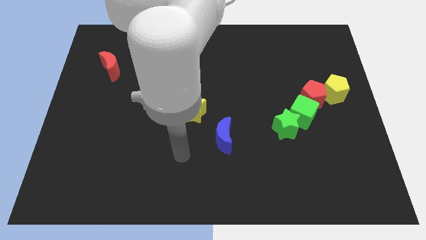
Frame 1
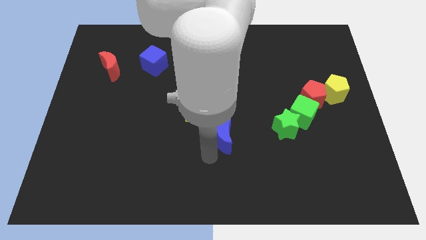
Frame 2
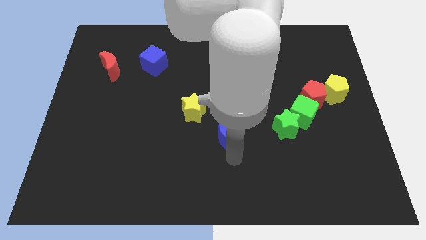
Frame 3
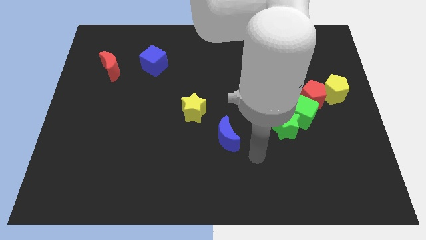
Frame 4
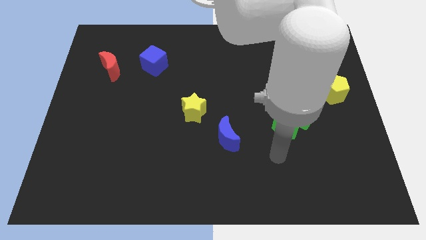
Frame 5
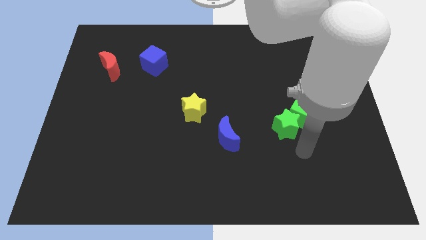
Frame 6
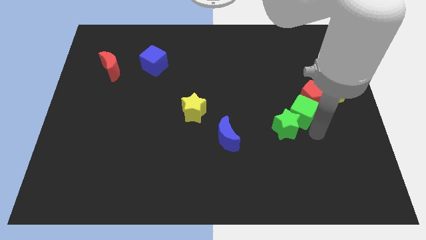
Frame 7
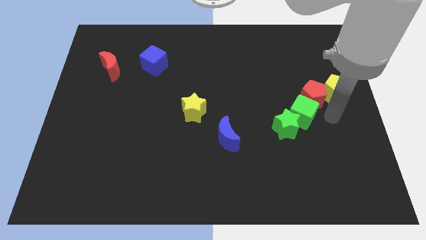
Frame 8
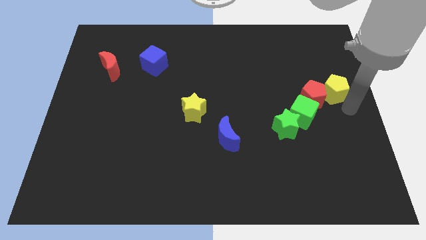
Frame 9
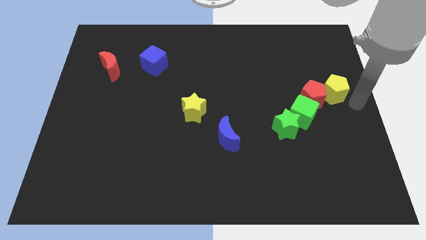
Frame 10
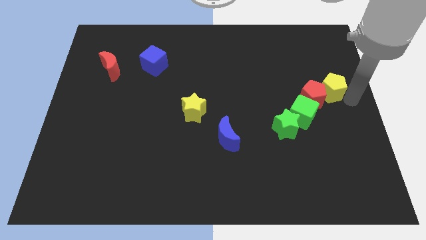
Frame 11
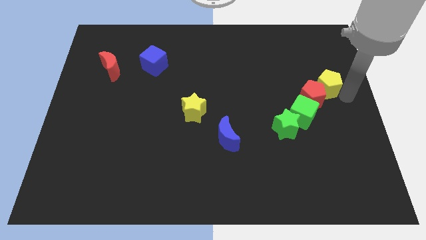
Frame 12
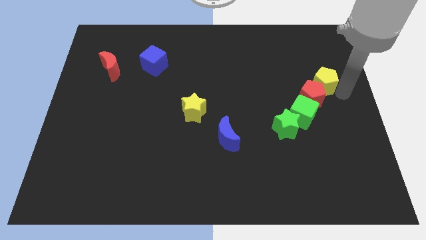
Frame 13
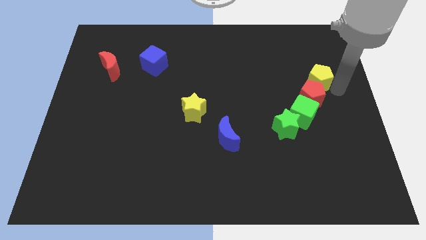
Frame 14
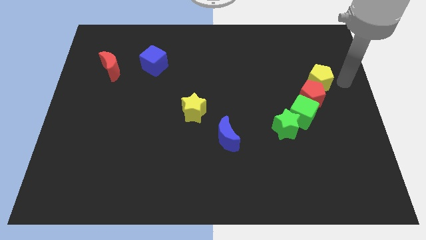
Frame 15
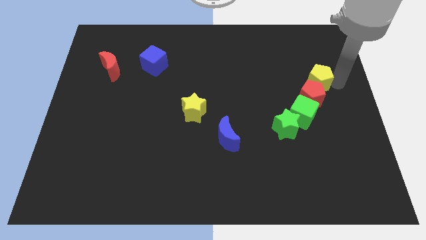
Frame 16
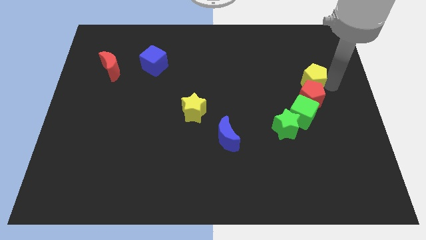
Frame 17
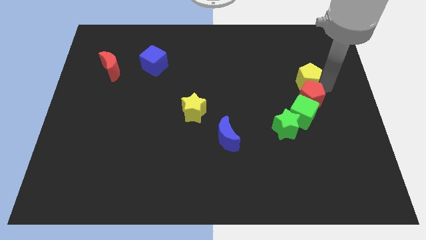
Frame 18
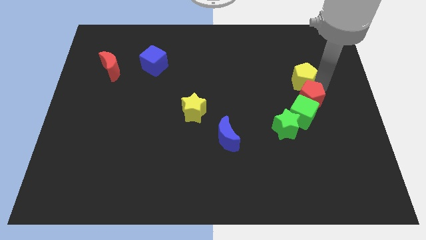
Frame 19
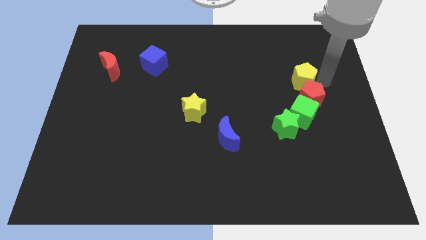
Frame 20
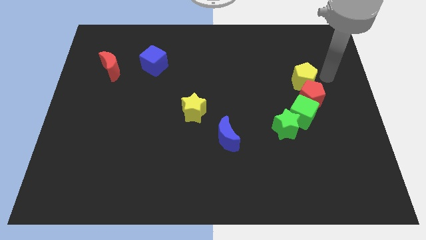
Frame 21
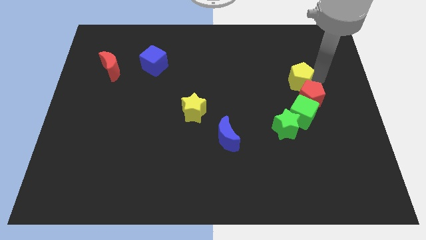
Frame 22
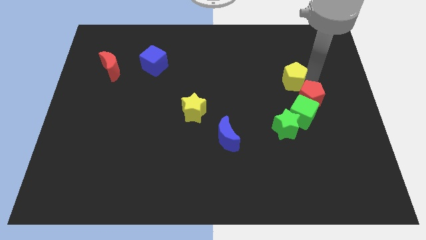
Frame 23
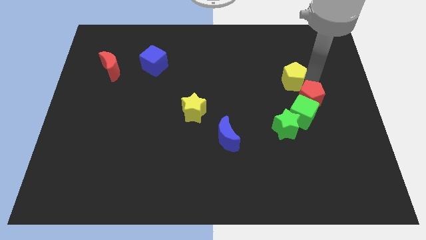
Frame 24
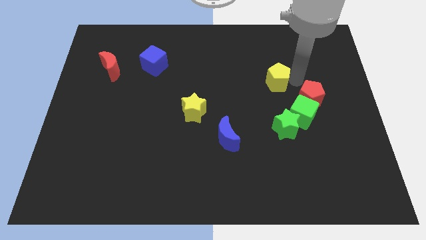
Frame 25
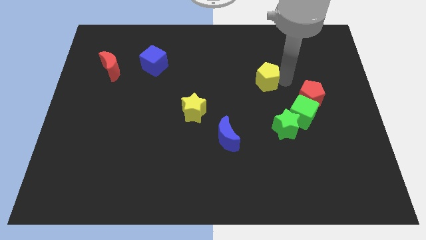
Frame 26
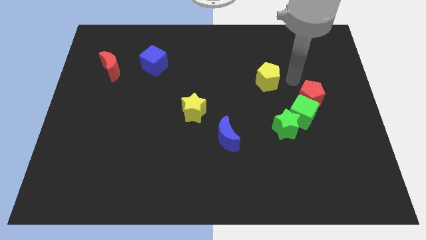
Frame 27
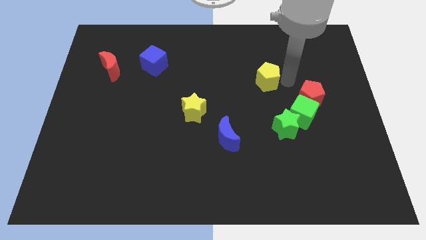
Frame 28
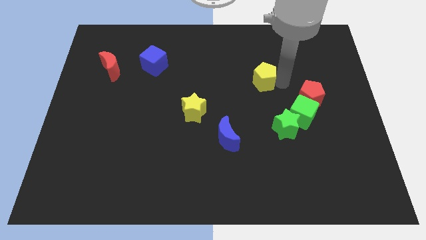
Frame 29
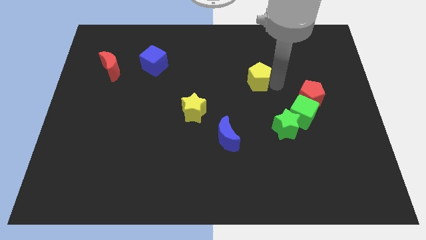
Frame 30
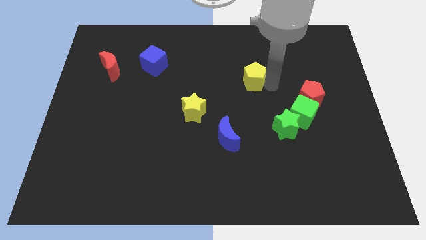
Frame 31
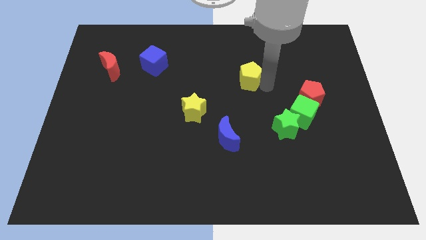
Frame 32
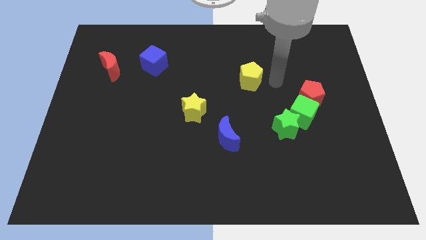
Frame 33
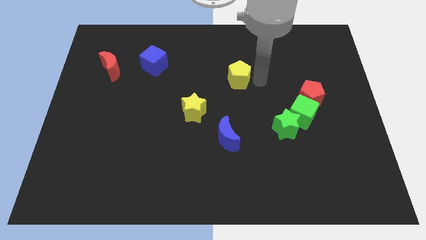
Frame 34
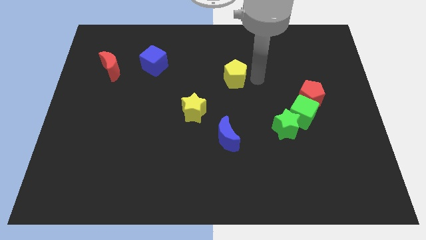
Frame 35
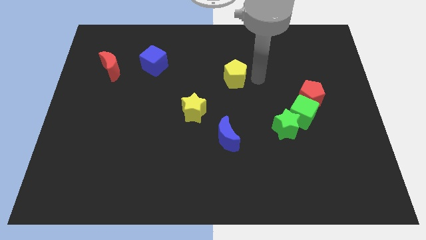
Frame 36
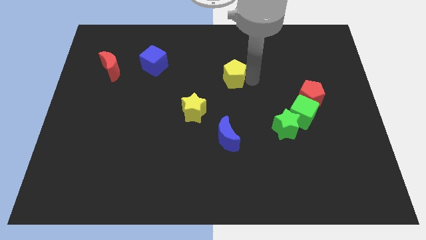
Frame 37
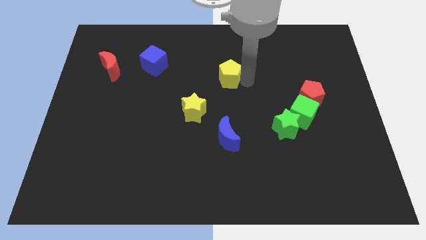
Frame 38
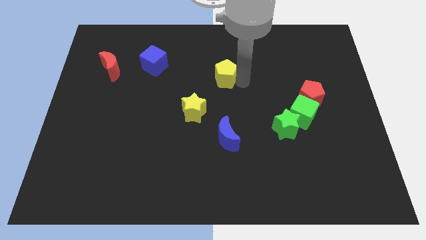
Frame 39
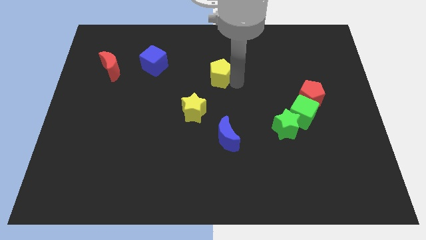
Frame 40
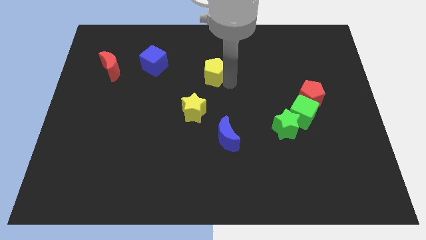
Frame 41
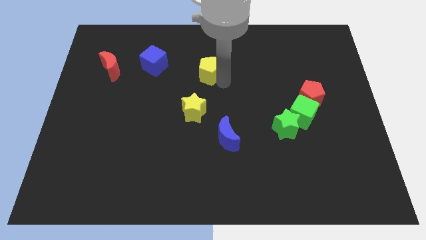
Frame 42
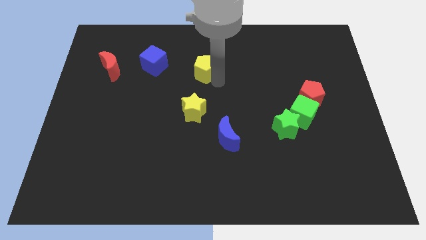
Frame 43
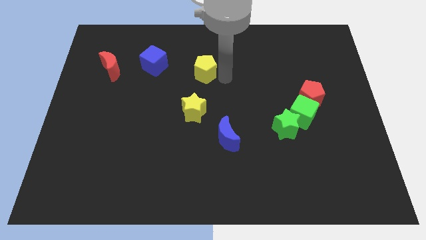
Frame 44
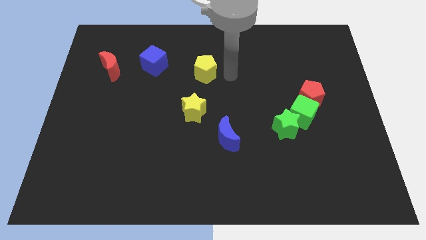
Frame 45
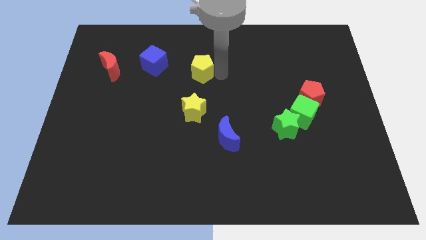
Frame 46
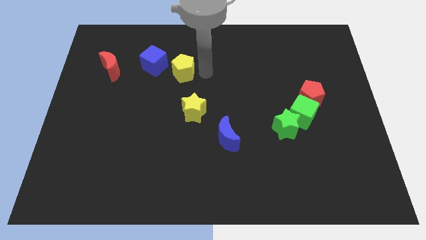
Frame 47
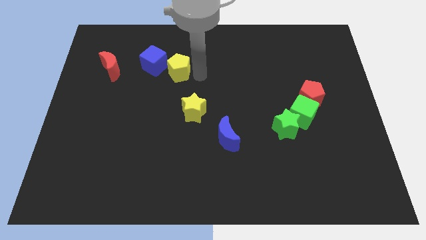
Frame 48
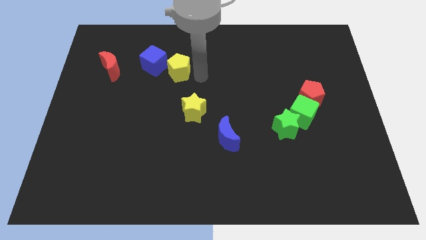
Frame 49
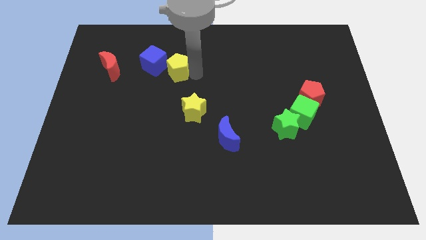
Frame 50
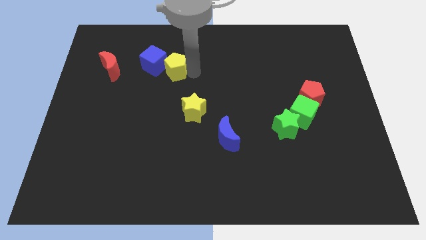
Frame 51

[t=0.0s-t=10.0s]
slide the yellow pentagon next to the blue cube

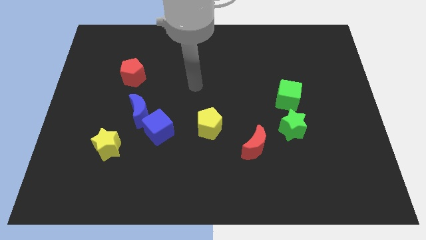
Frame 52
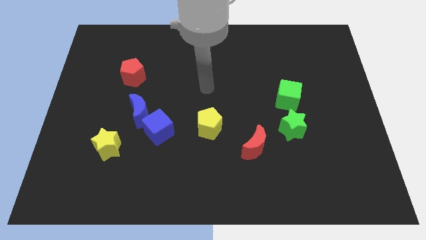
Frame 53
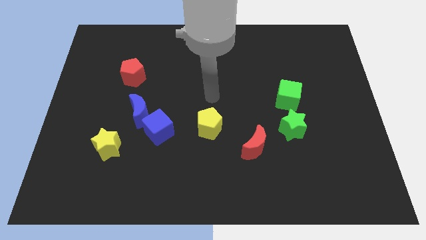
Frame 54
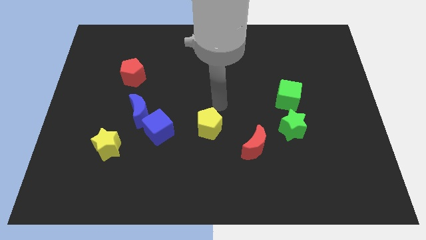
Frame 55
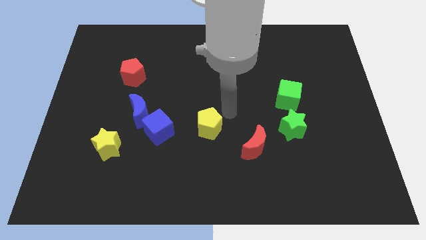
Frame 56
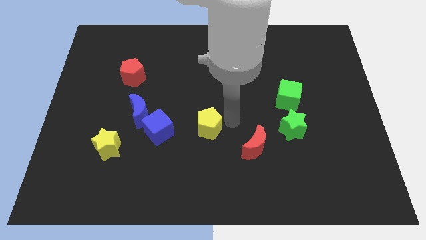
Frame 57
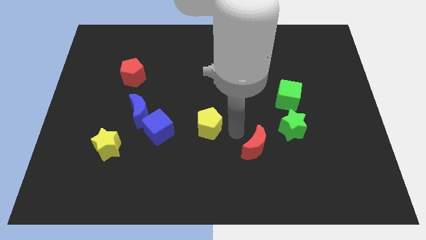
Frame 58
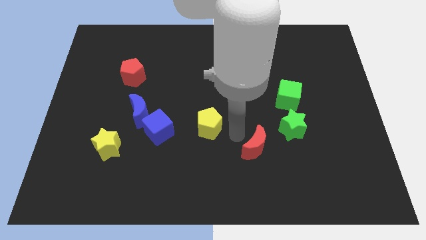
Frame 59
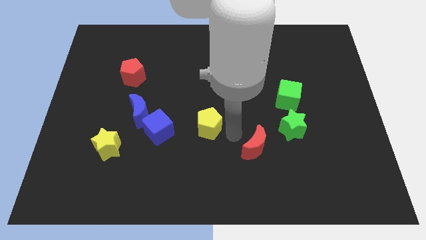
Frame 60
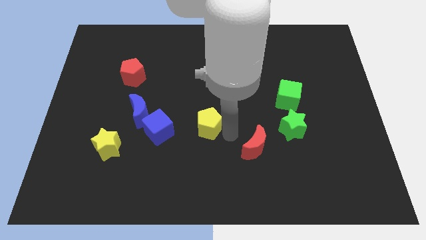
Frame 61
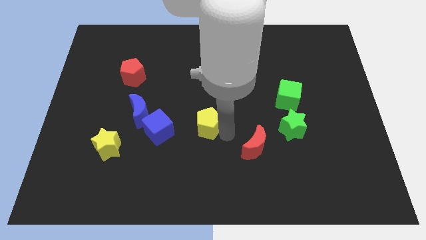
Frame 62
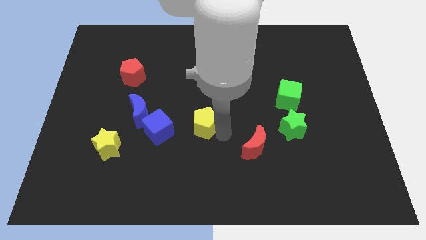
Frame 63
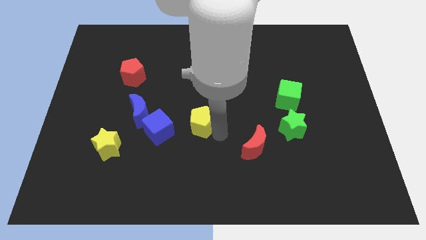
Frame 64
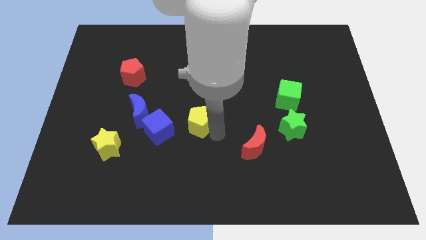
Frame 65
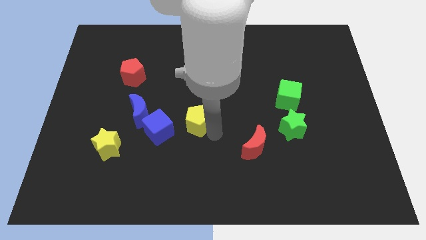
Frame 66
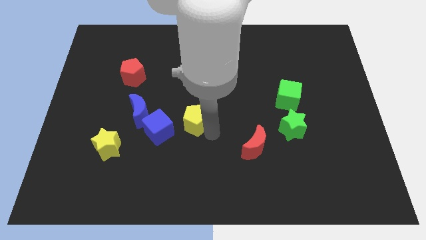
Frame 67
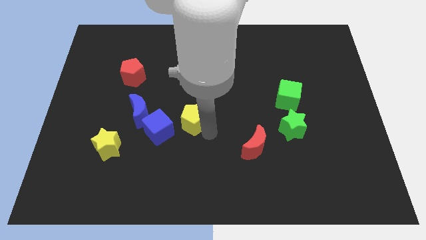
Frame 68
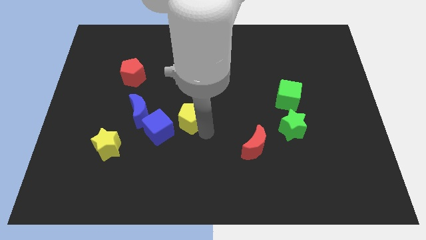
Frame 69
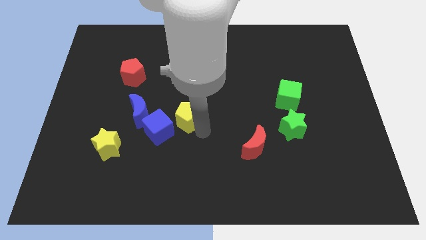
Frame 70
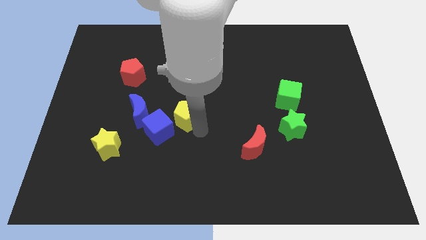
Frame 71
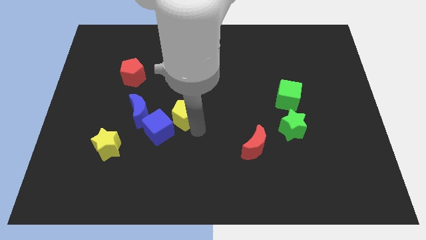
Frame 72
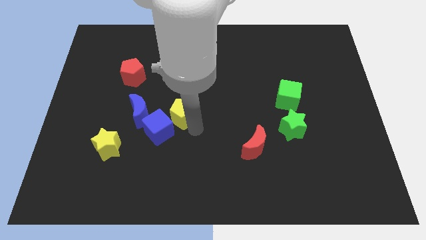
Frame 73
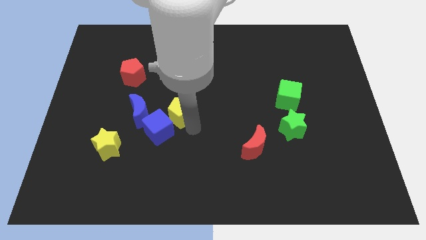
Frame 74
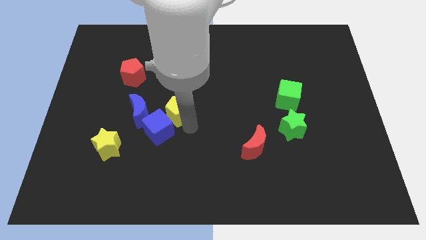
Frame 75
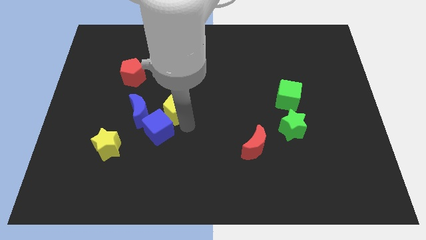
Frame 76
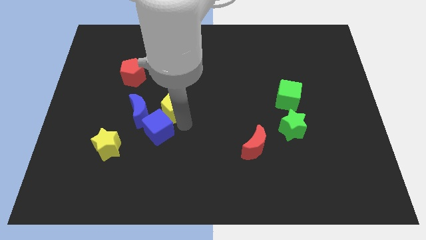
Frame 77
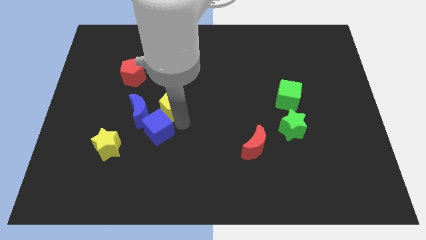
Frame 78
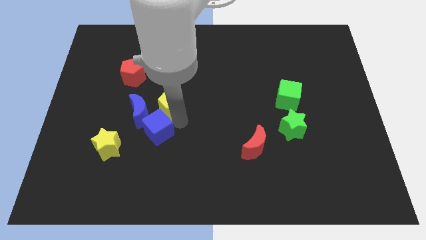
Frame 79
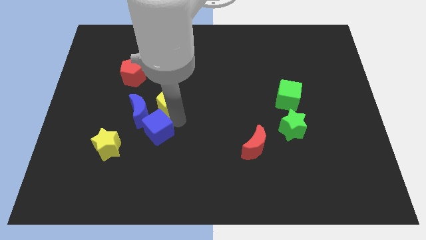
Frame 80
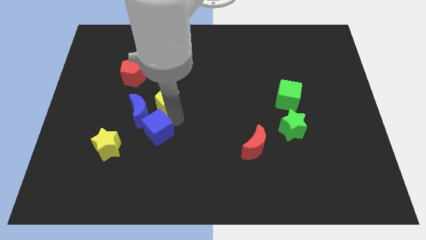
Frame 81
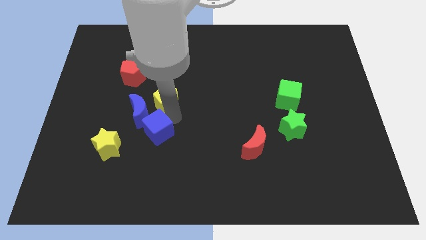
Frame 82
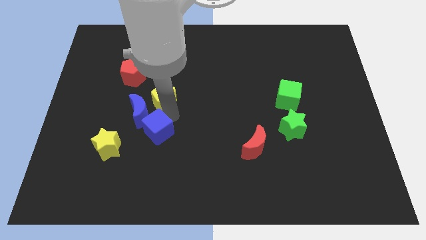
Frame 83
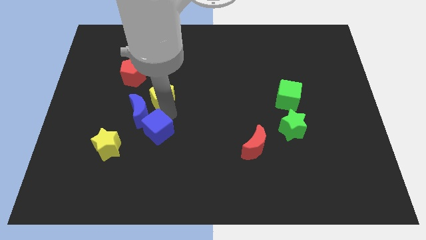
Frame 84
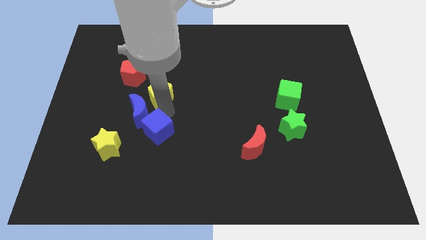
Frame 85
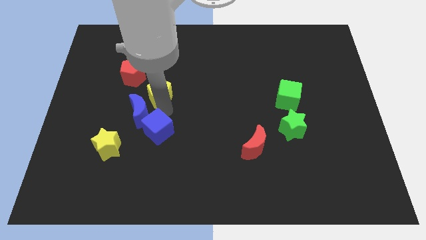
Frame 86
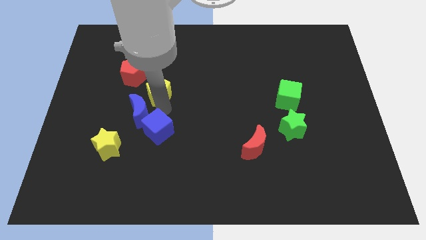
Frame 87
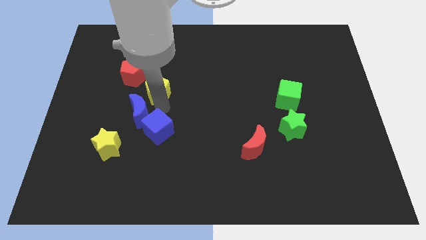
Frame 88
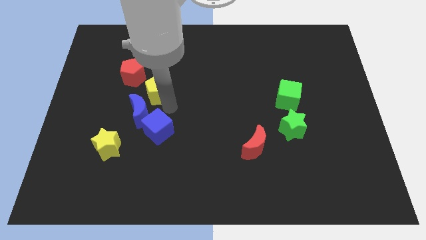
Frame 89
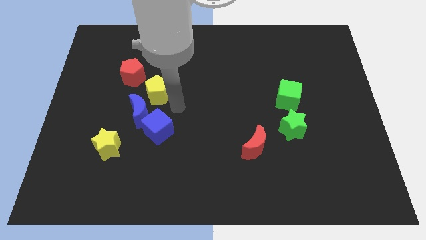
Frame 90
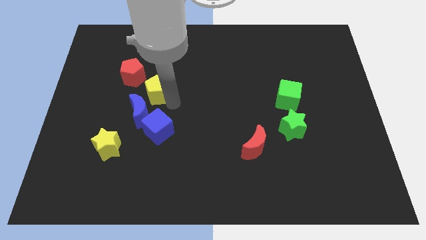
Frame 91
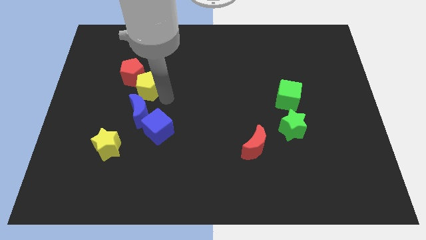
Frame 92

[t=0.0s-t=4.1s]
push the yellow pentagon to the red pentagon
